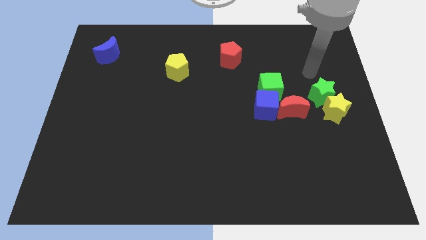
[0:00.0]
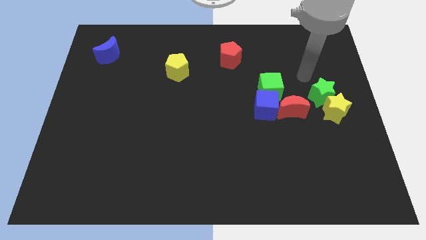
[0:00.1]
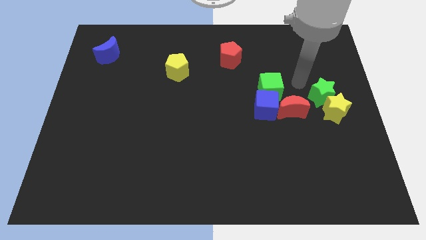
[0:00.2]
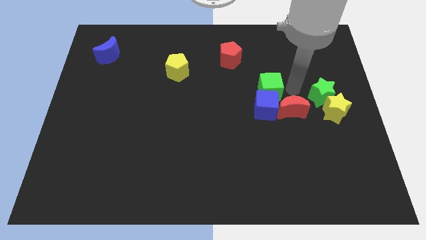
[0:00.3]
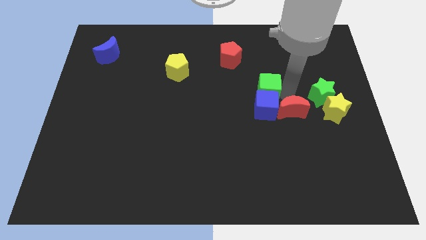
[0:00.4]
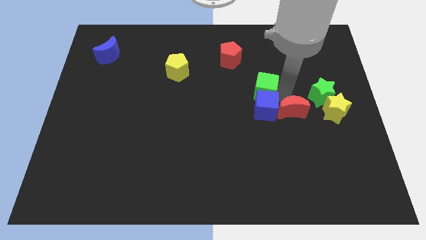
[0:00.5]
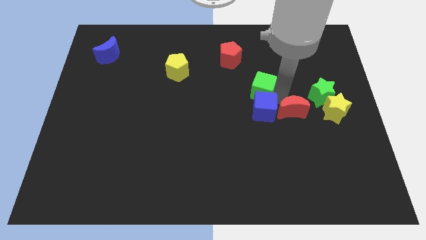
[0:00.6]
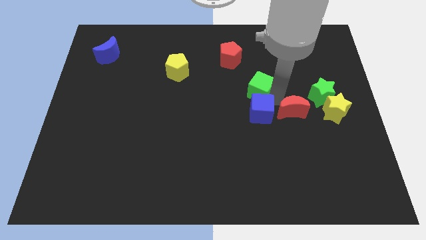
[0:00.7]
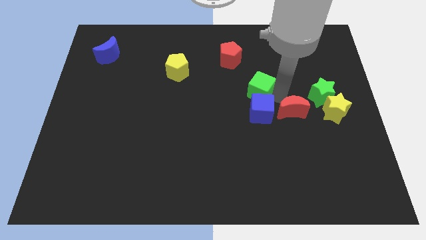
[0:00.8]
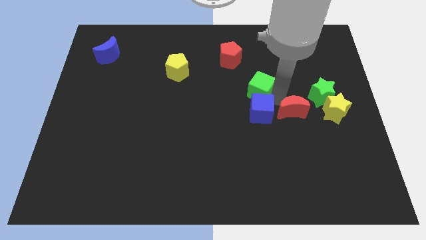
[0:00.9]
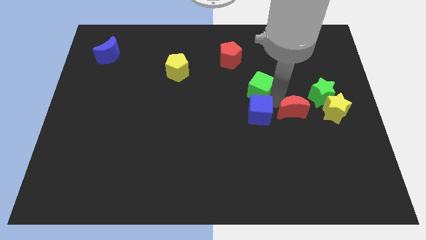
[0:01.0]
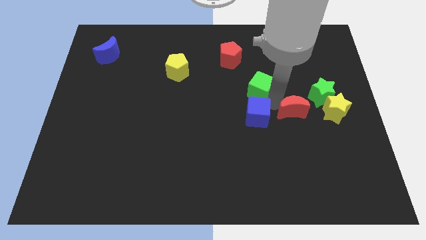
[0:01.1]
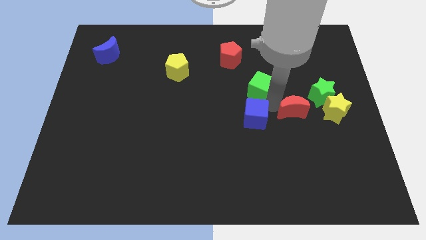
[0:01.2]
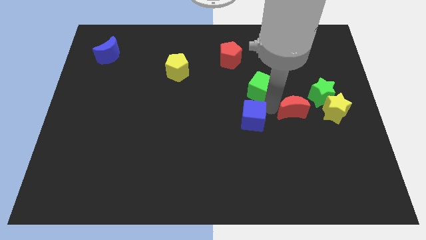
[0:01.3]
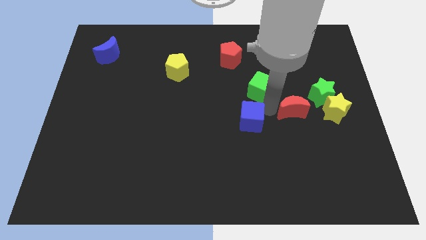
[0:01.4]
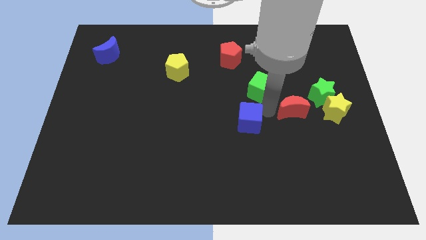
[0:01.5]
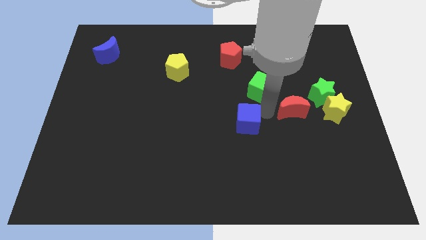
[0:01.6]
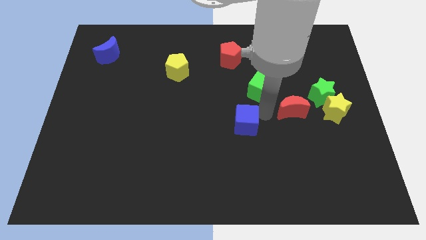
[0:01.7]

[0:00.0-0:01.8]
pull the blue cube apart from the green cube and red moon

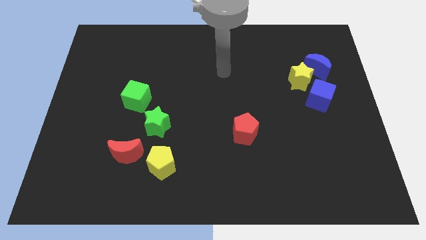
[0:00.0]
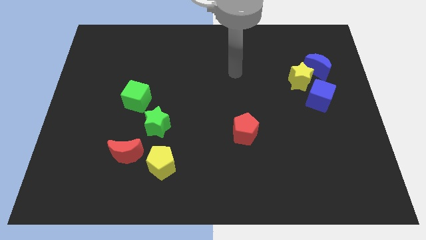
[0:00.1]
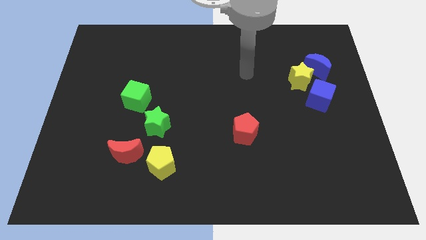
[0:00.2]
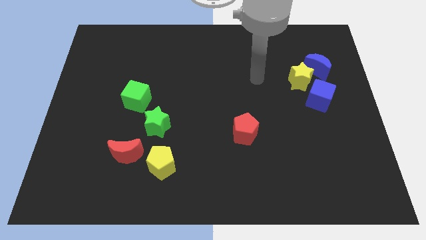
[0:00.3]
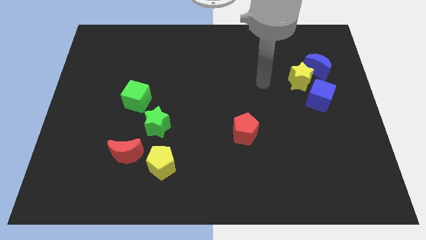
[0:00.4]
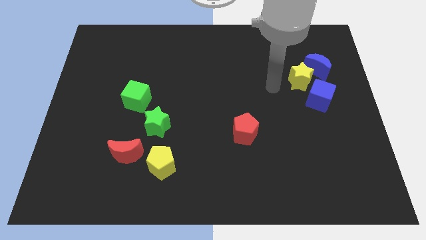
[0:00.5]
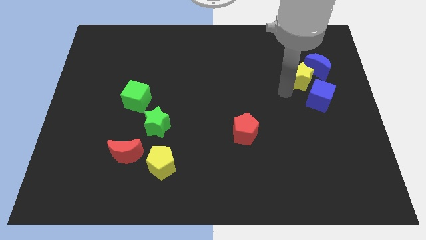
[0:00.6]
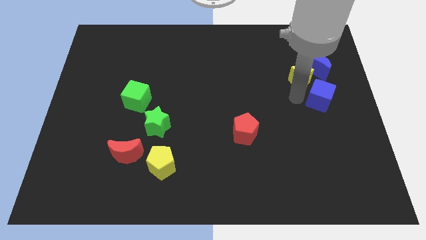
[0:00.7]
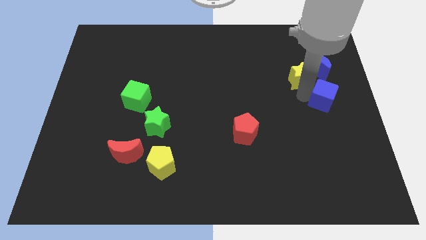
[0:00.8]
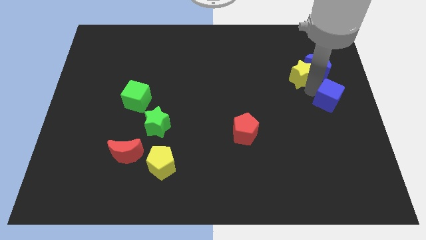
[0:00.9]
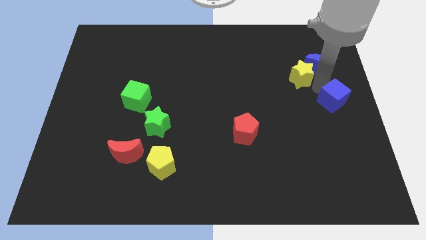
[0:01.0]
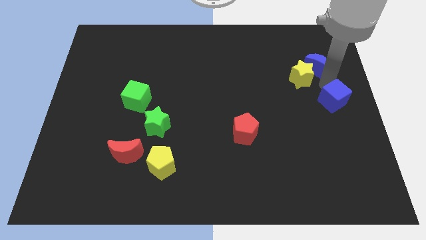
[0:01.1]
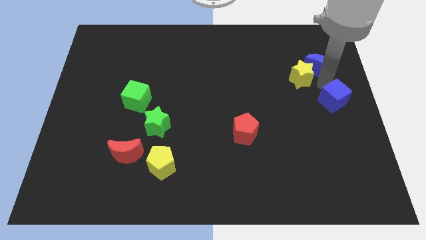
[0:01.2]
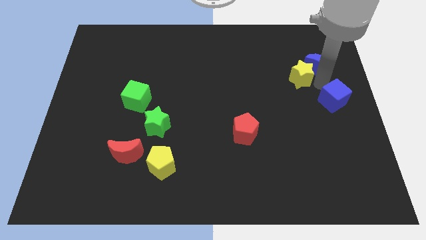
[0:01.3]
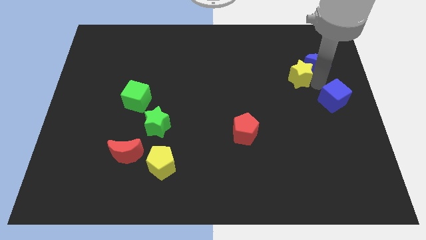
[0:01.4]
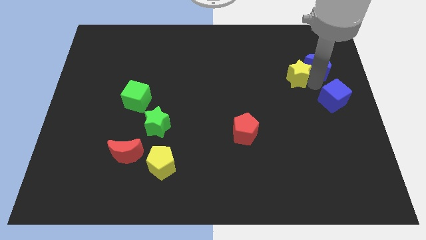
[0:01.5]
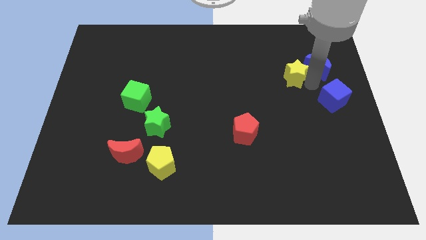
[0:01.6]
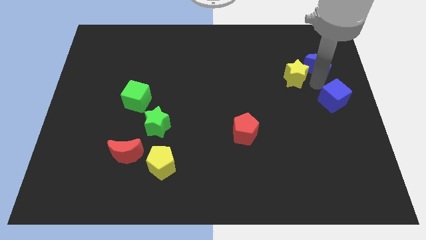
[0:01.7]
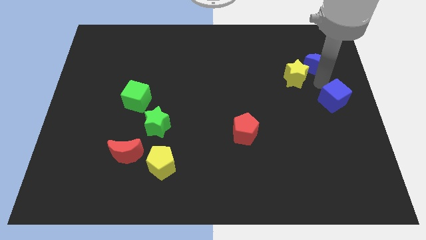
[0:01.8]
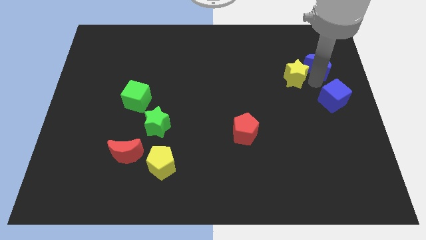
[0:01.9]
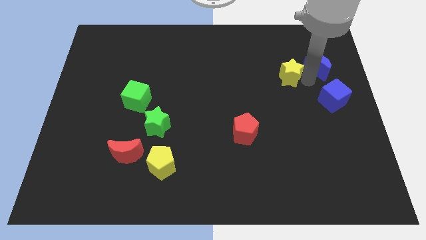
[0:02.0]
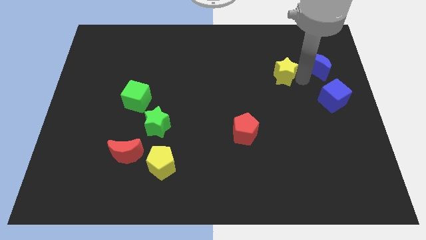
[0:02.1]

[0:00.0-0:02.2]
move the yellow star away from the blue moon and blue cube

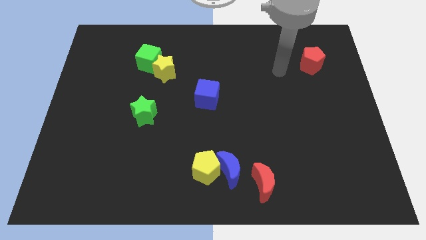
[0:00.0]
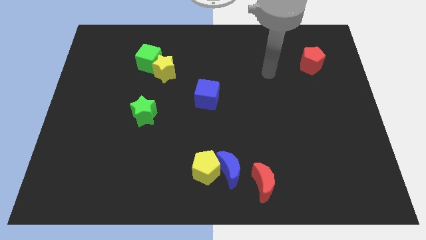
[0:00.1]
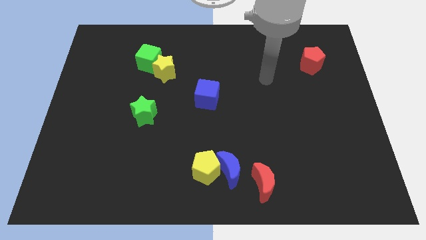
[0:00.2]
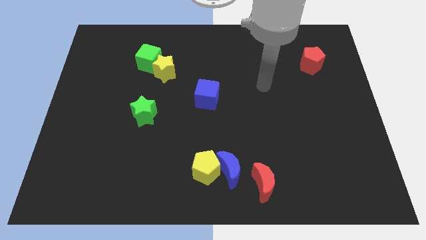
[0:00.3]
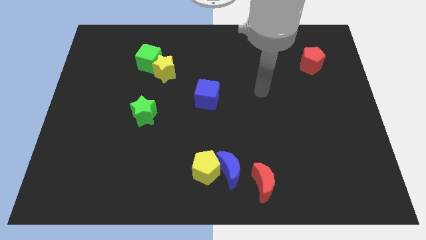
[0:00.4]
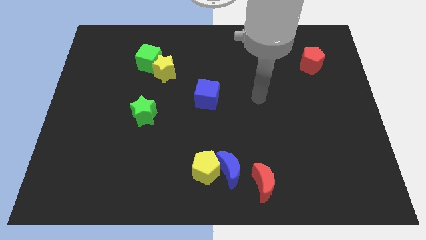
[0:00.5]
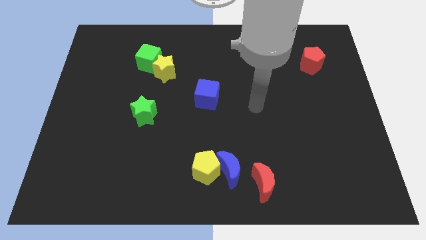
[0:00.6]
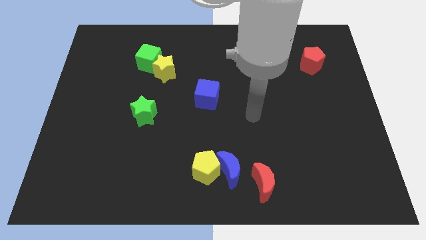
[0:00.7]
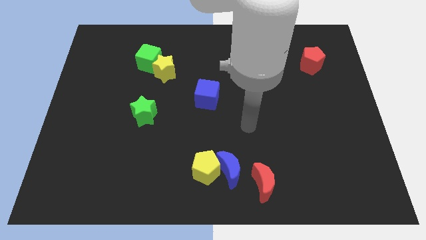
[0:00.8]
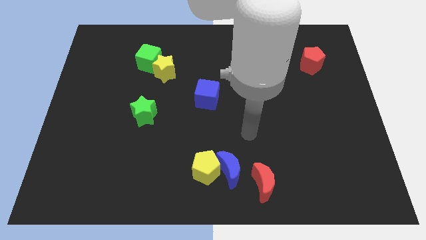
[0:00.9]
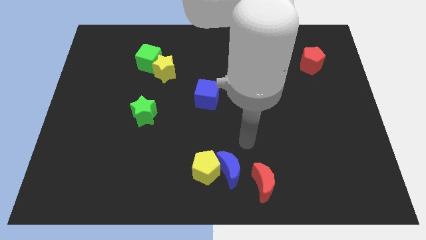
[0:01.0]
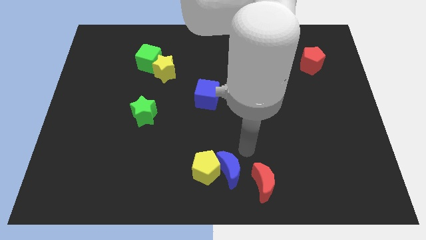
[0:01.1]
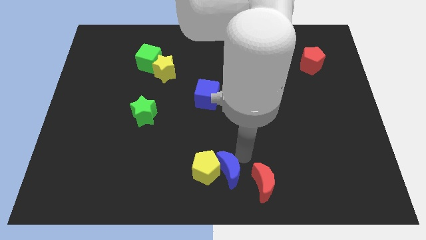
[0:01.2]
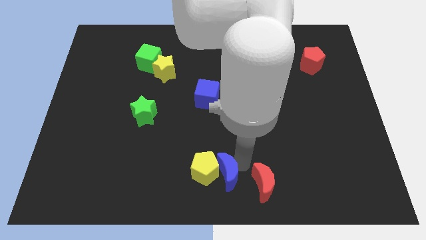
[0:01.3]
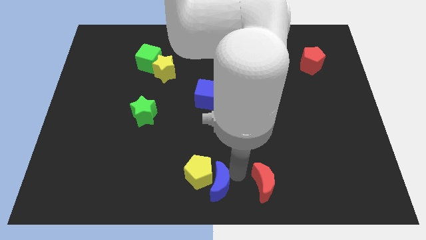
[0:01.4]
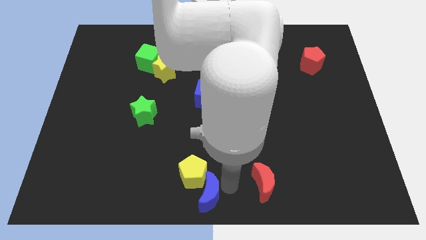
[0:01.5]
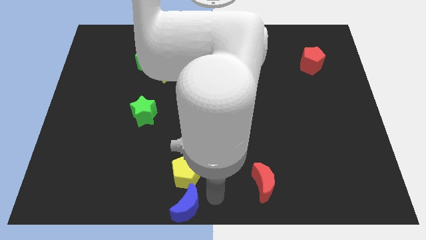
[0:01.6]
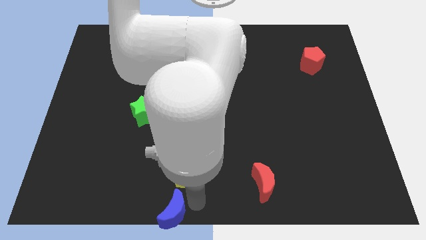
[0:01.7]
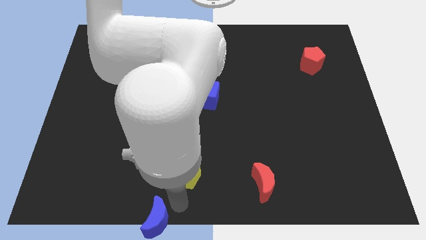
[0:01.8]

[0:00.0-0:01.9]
pull the yellow pentagon apart from the blue moon

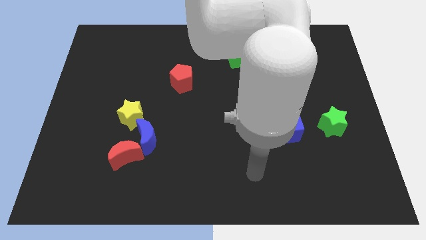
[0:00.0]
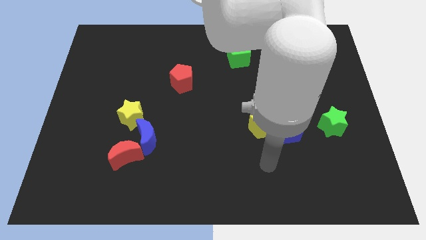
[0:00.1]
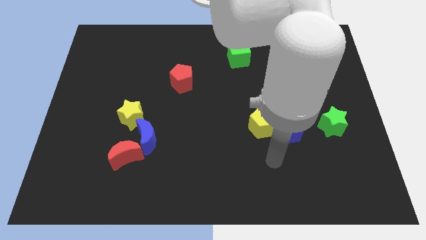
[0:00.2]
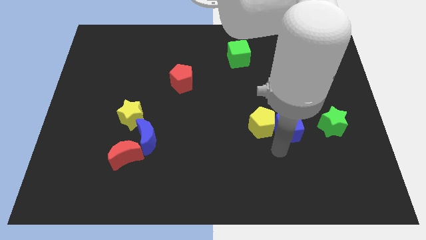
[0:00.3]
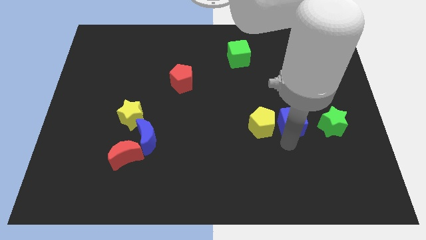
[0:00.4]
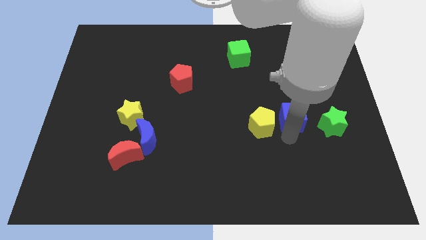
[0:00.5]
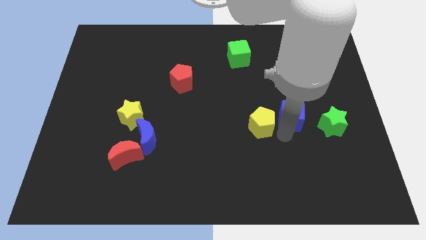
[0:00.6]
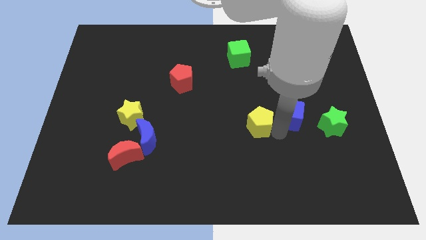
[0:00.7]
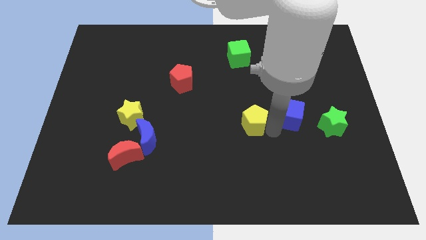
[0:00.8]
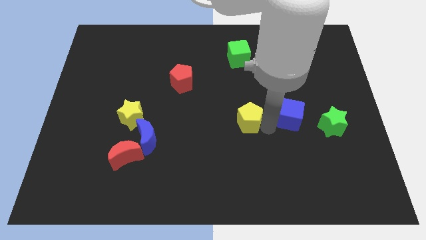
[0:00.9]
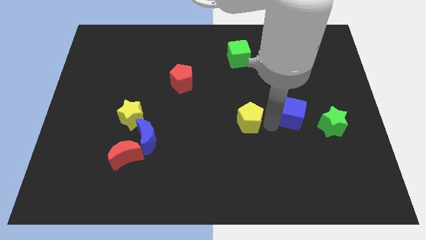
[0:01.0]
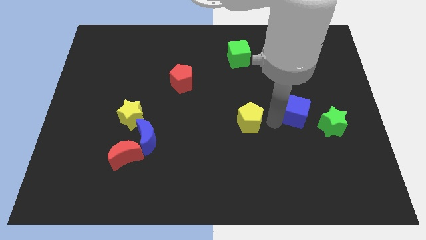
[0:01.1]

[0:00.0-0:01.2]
move the yellow pentagon away from the blue cube

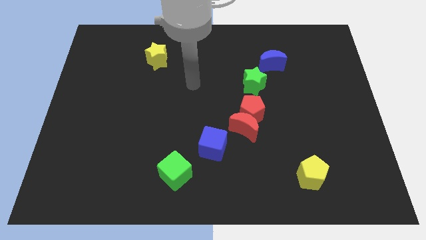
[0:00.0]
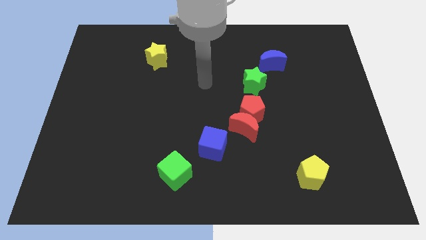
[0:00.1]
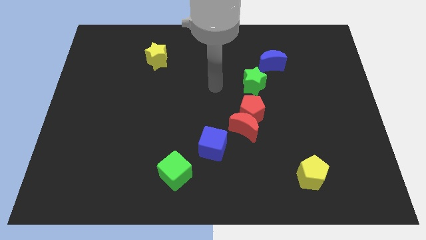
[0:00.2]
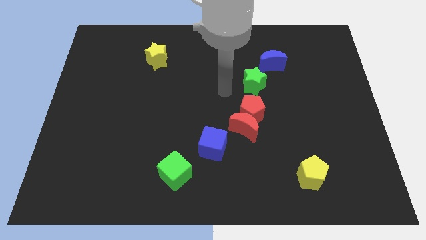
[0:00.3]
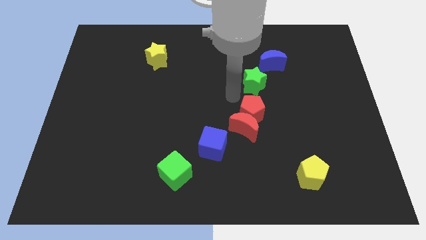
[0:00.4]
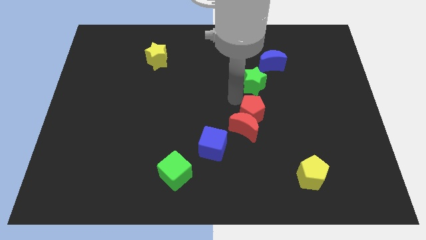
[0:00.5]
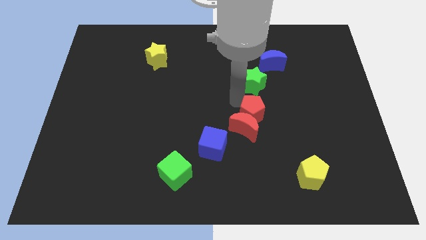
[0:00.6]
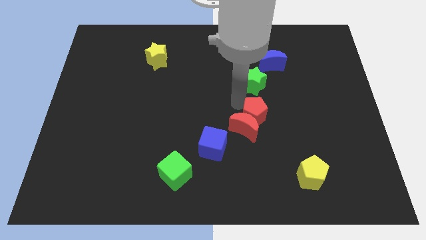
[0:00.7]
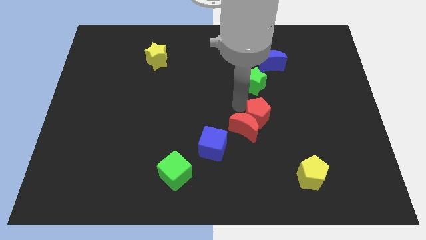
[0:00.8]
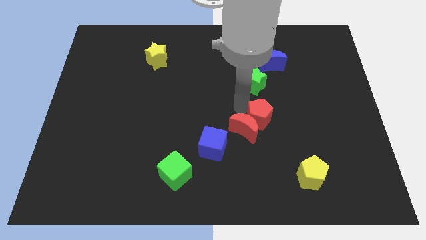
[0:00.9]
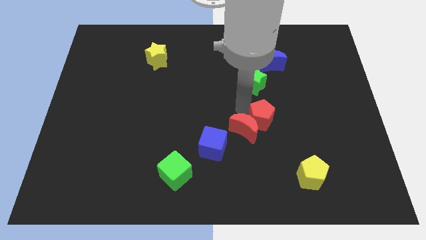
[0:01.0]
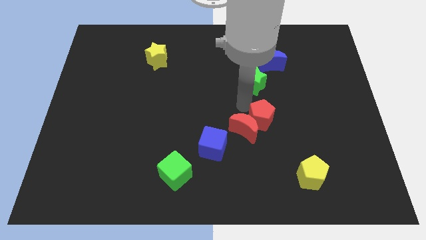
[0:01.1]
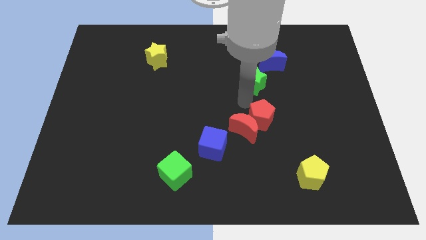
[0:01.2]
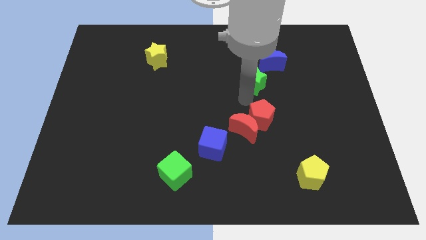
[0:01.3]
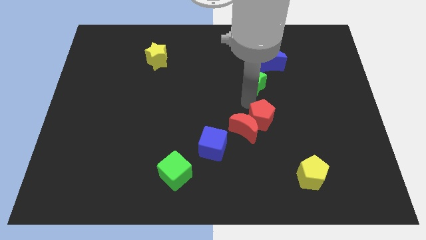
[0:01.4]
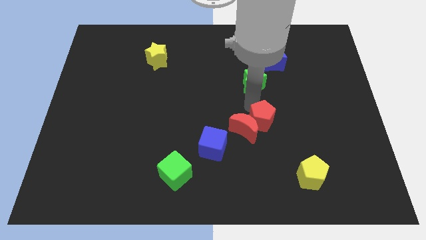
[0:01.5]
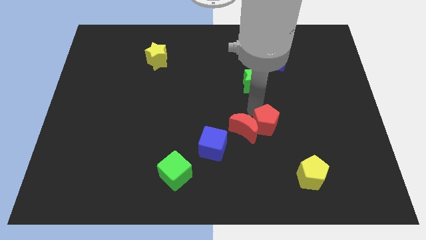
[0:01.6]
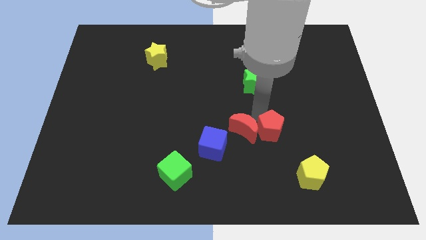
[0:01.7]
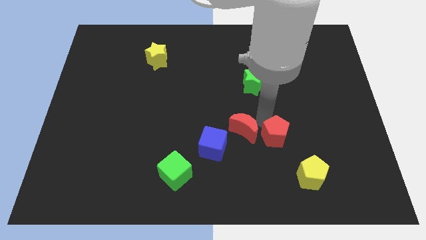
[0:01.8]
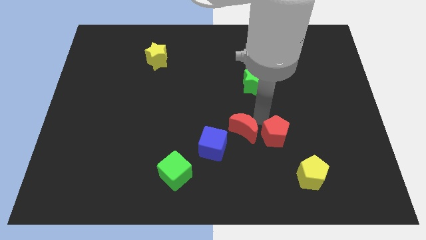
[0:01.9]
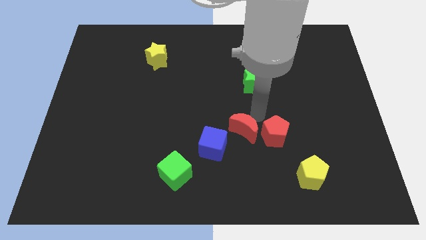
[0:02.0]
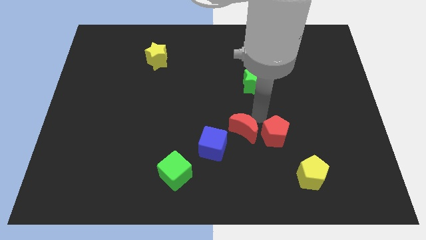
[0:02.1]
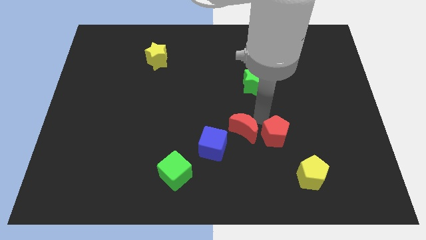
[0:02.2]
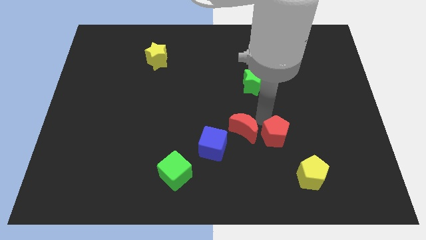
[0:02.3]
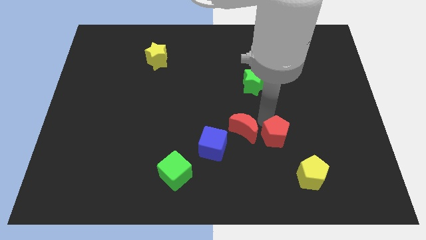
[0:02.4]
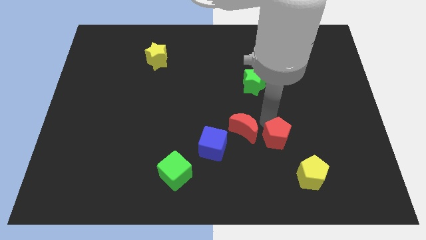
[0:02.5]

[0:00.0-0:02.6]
pull the red pentagon apart from the red moon and green star
